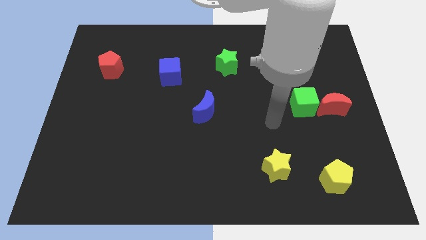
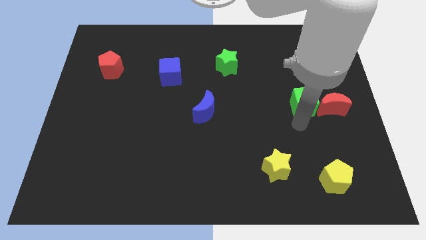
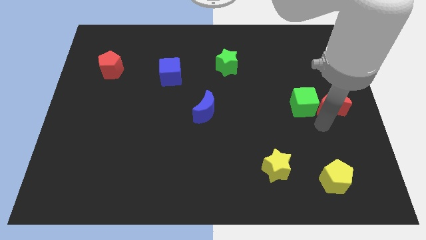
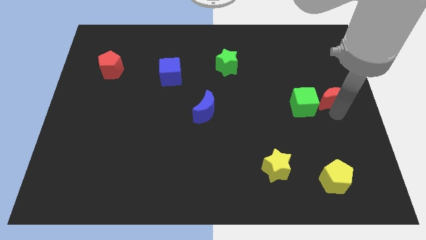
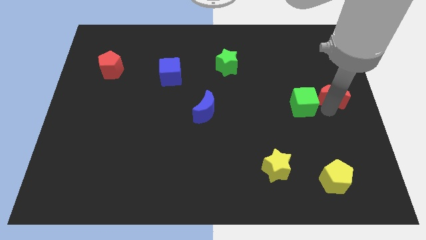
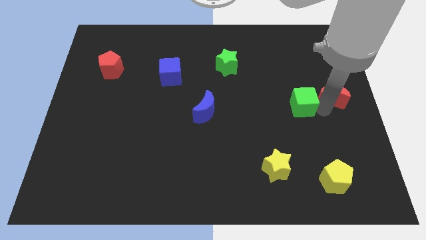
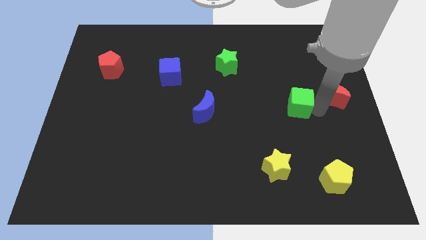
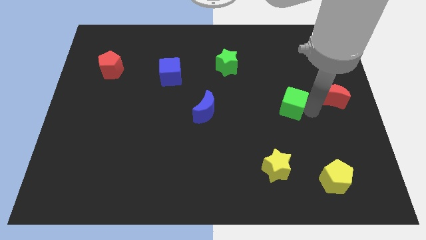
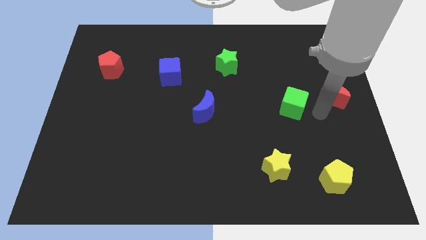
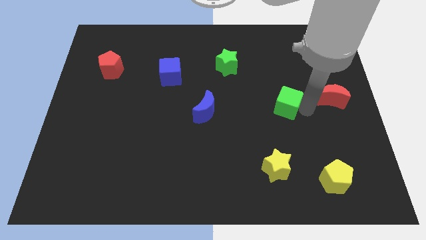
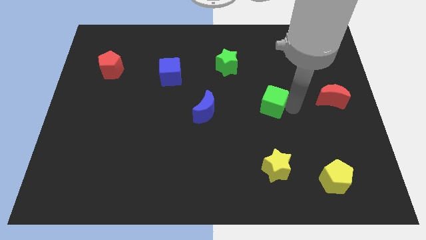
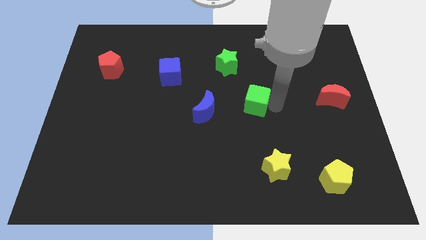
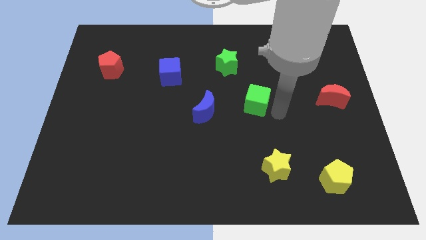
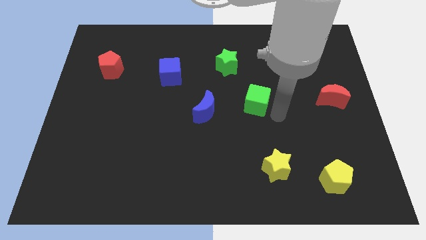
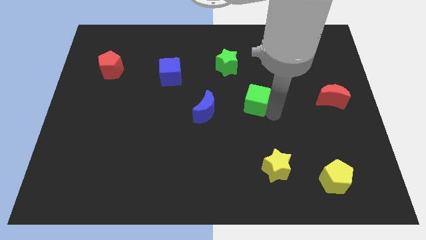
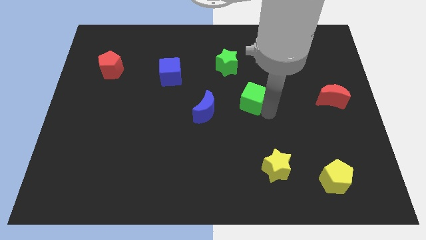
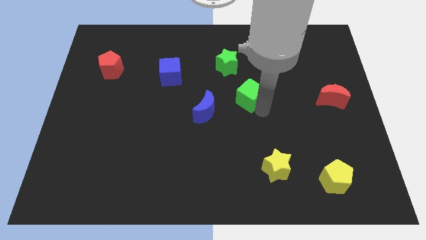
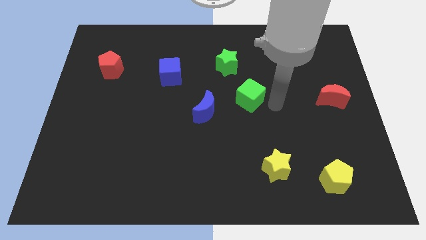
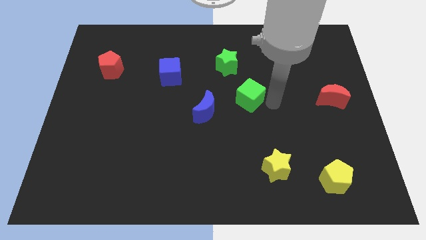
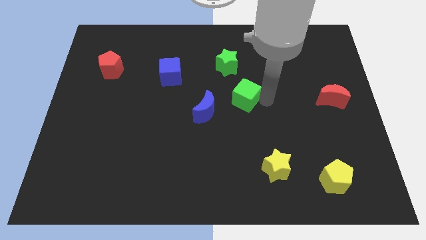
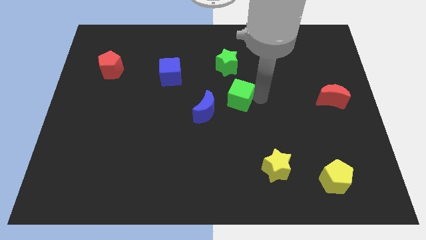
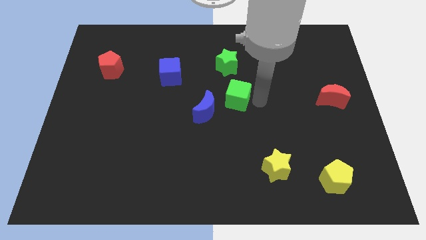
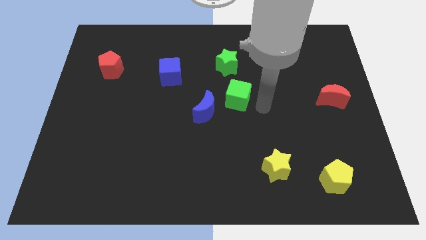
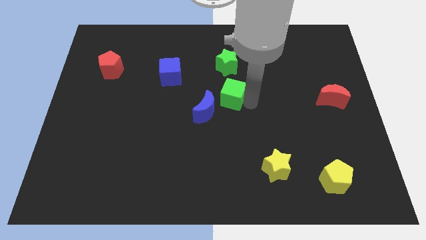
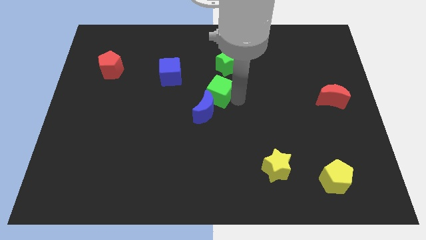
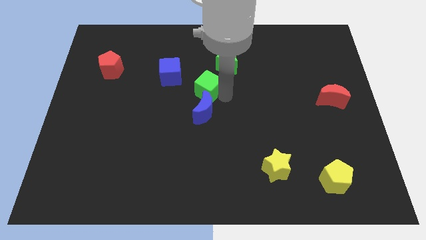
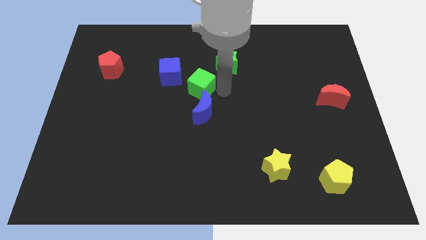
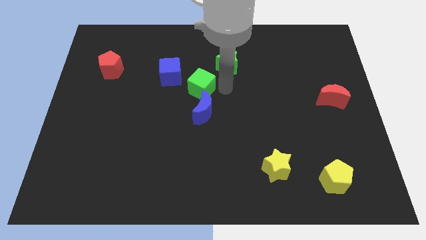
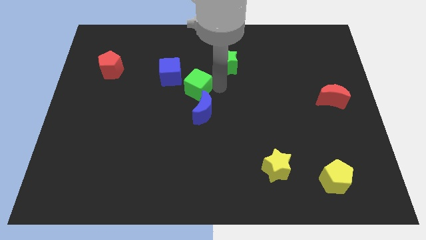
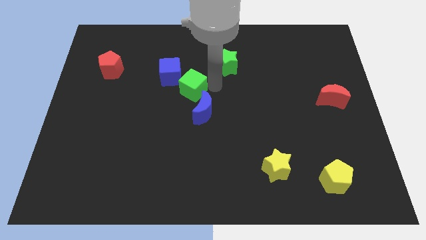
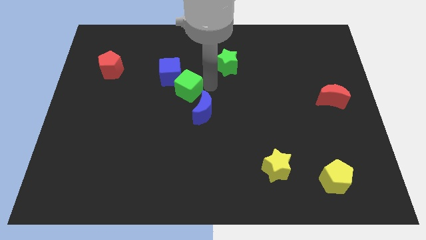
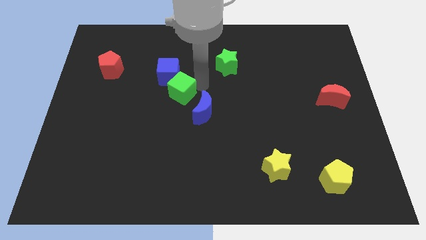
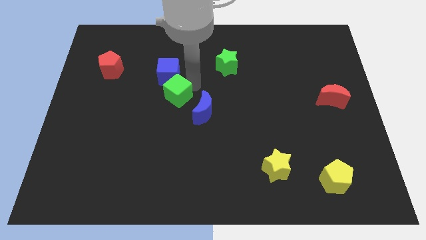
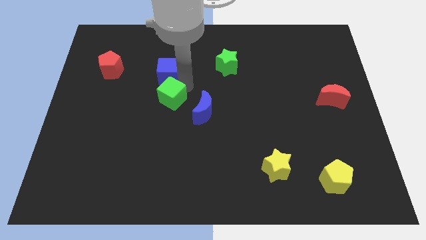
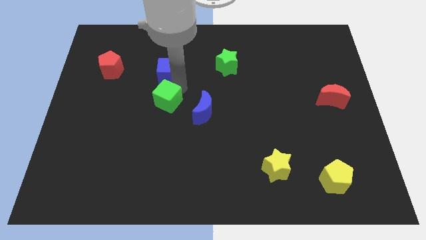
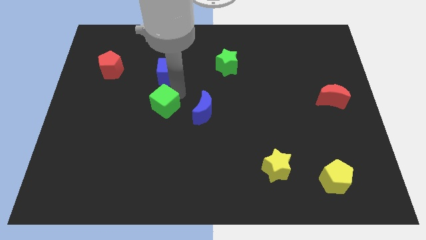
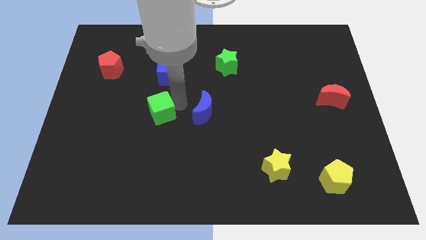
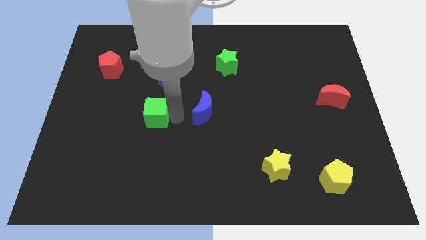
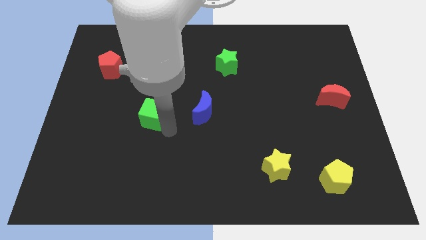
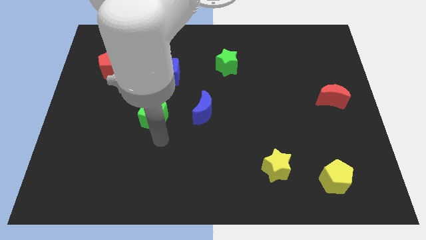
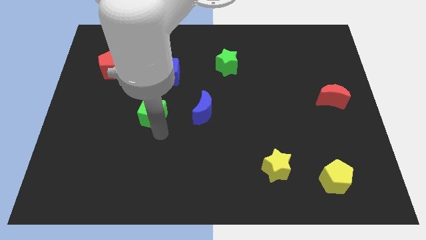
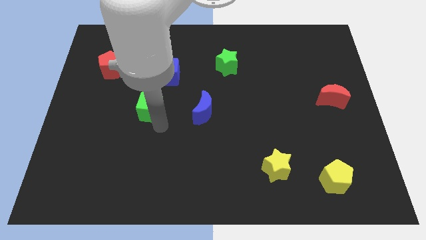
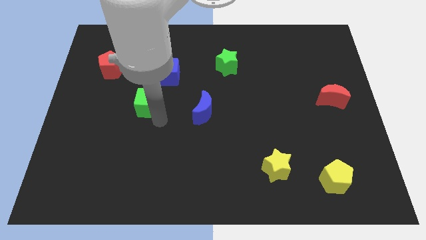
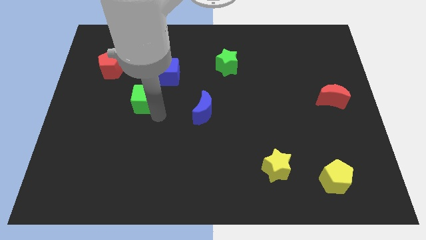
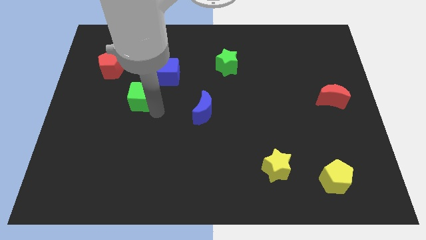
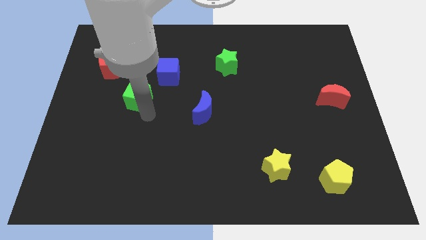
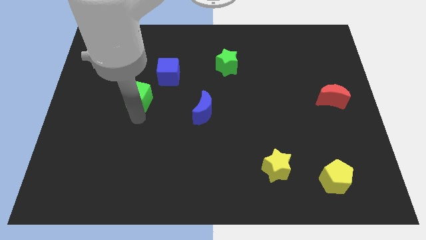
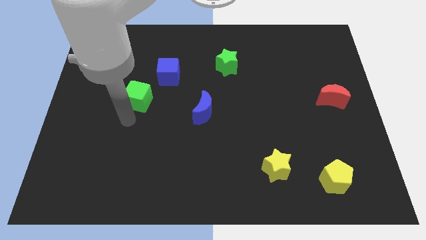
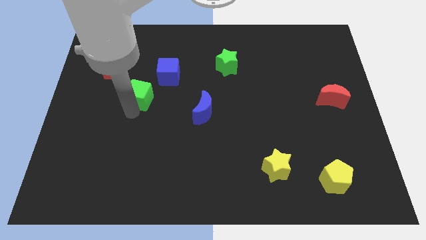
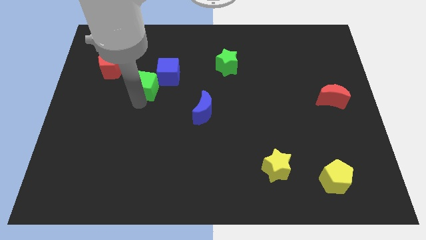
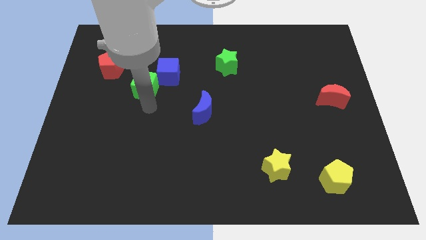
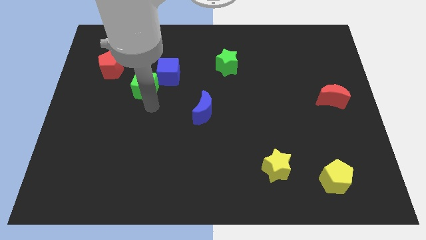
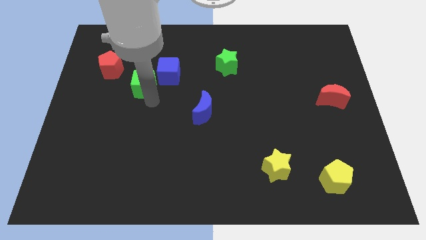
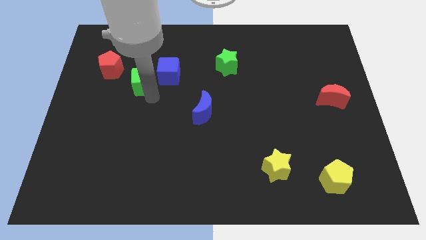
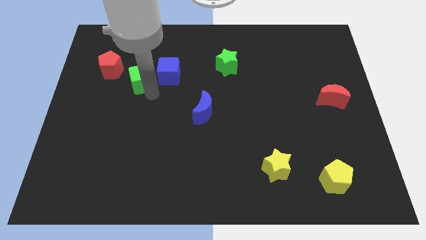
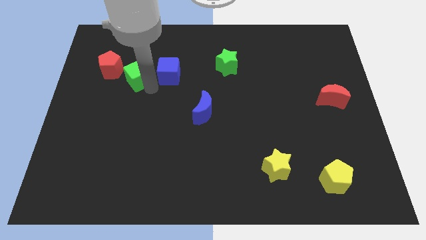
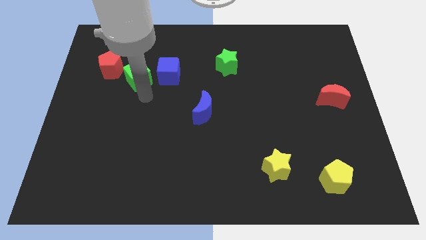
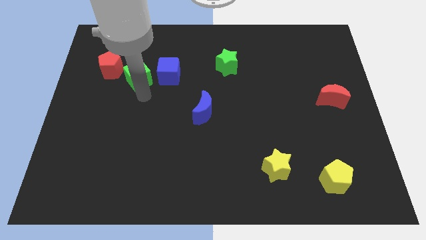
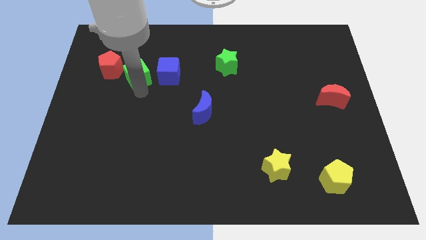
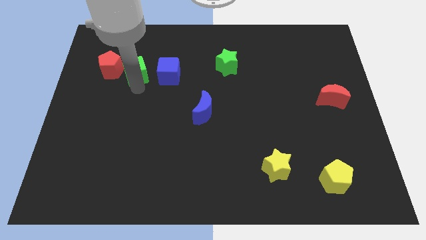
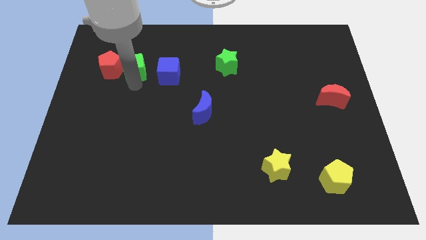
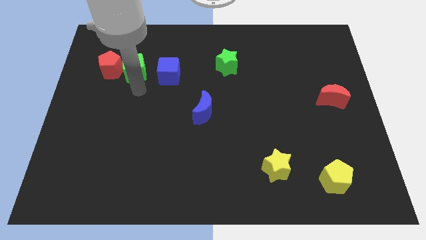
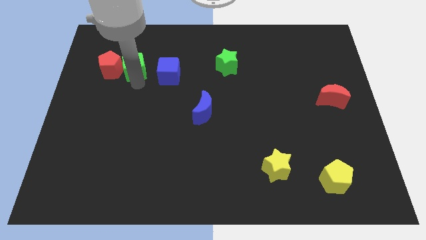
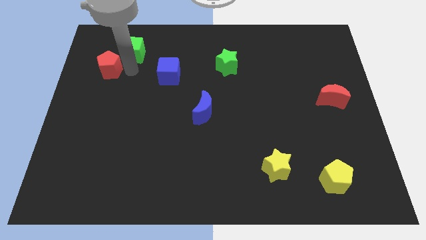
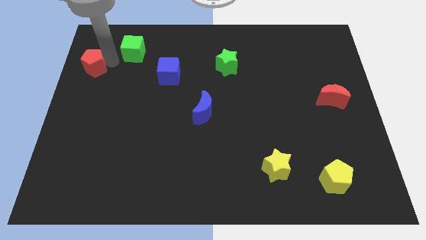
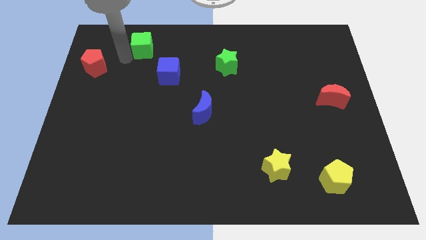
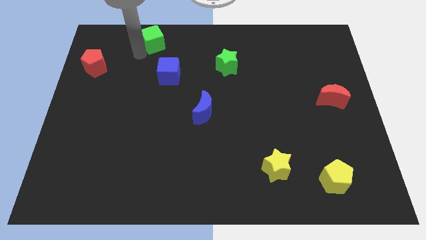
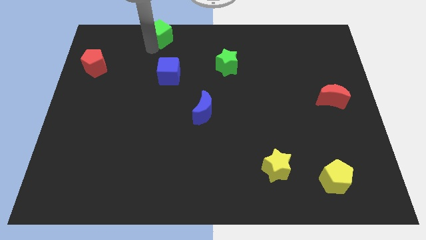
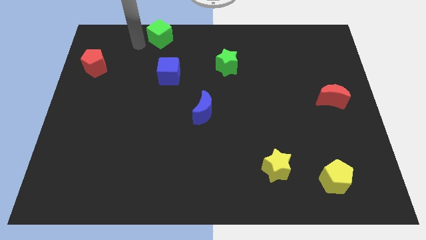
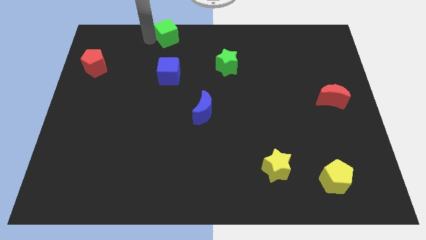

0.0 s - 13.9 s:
move the green cube to the top side
